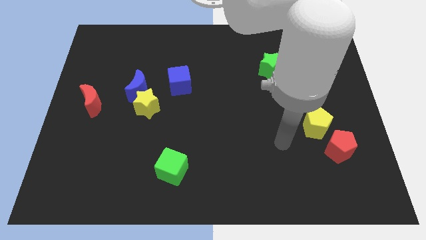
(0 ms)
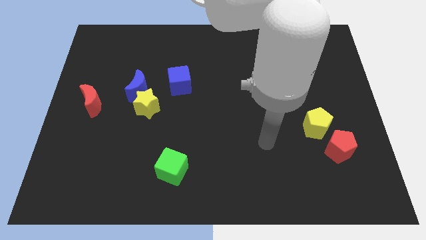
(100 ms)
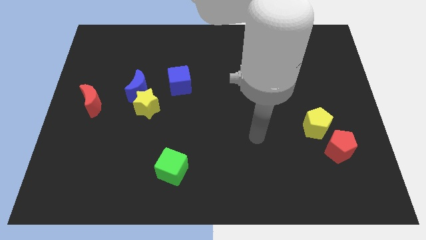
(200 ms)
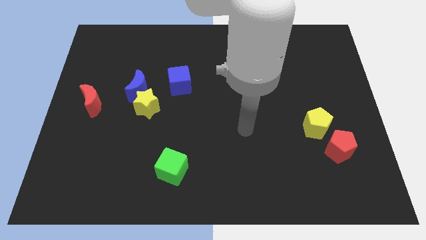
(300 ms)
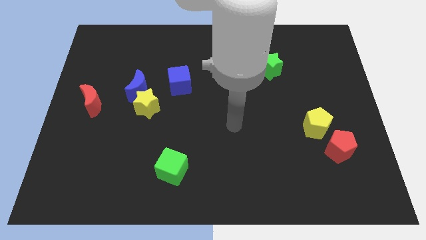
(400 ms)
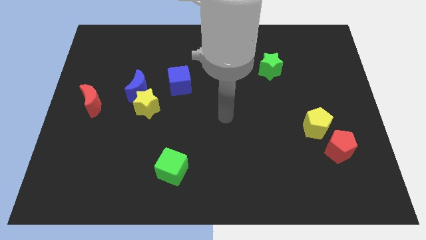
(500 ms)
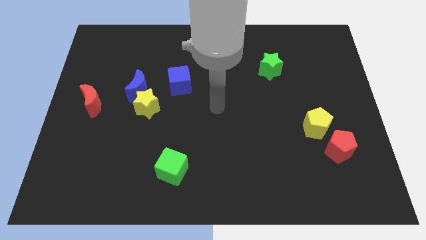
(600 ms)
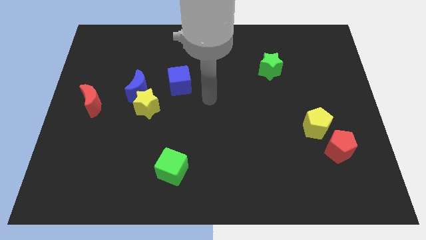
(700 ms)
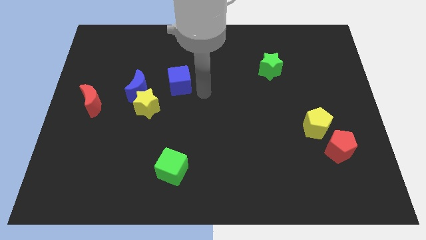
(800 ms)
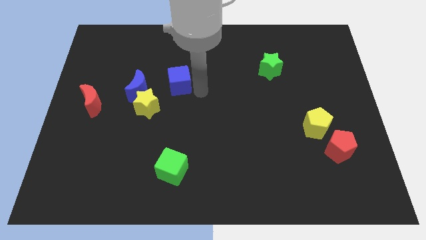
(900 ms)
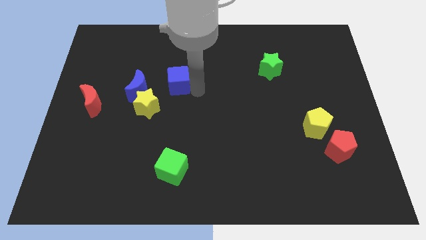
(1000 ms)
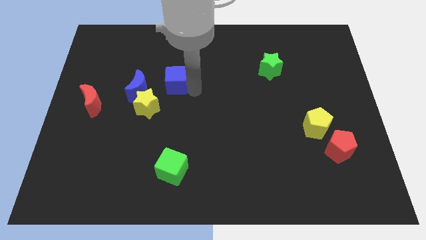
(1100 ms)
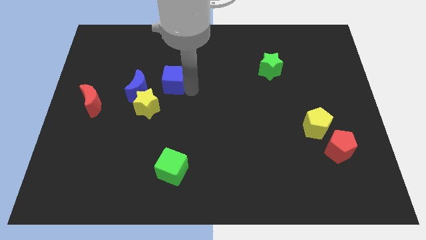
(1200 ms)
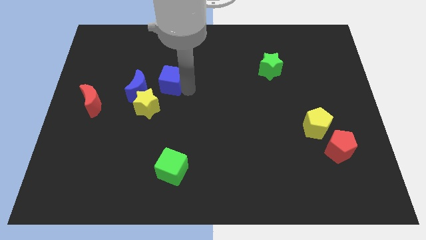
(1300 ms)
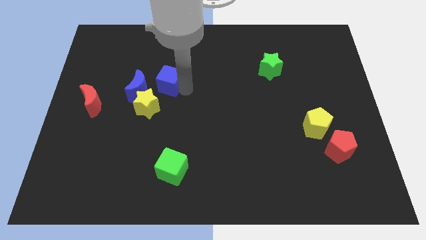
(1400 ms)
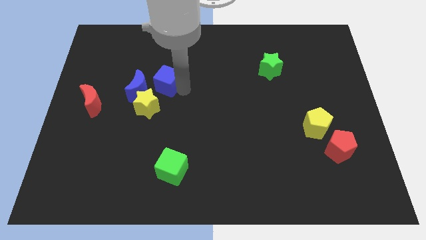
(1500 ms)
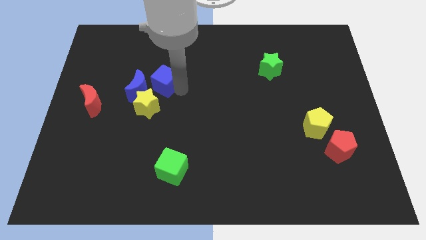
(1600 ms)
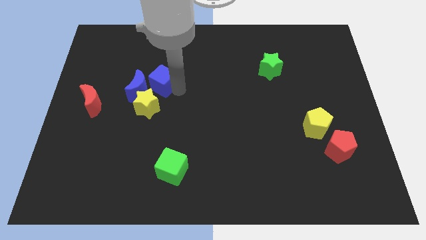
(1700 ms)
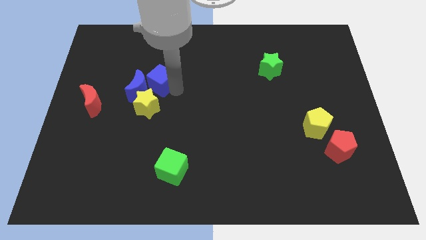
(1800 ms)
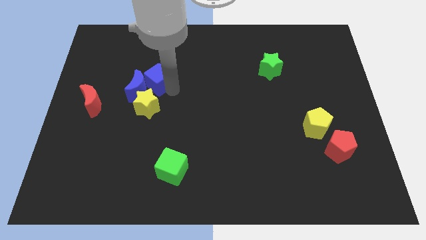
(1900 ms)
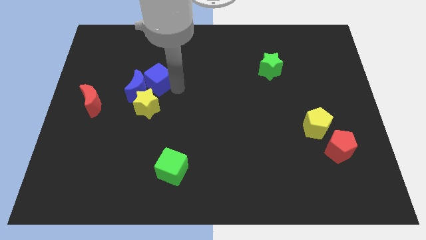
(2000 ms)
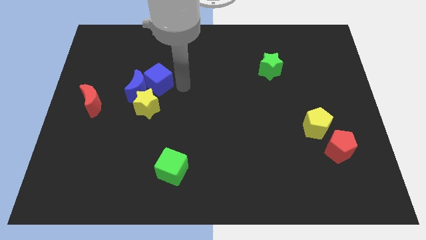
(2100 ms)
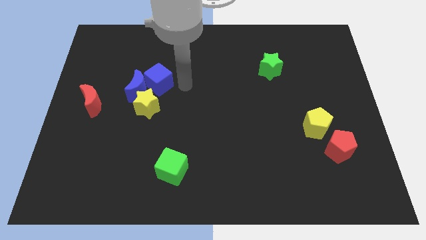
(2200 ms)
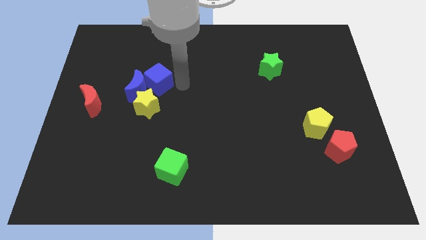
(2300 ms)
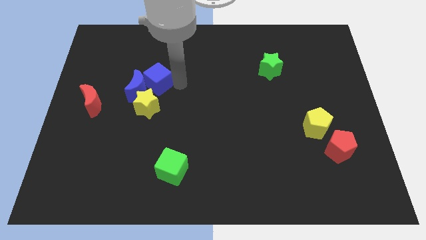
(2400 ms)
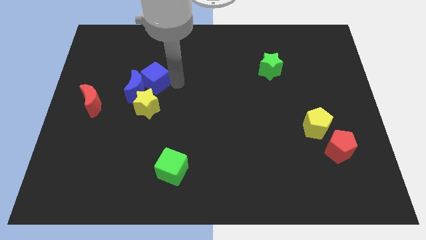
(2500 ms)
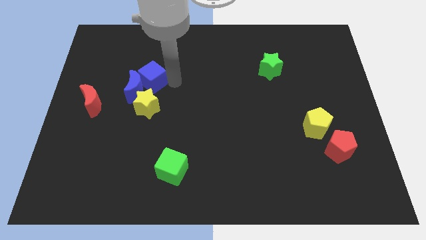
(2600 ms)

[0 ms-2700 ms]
slide the blue cube left somewhat

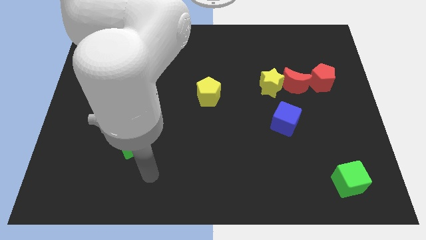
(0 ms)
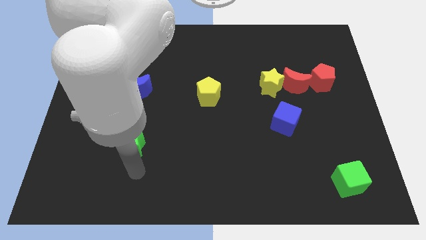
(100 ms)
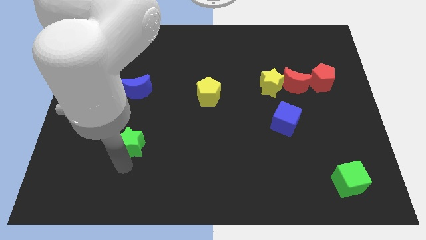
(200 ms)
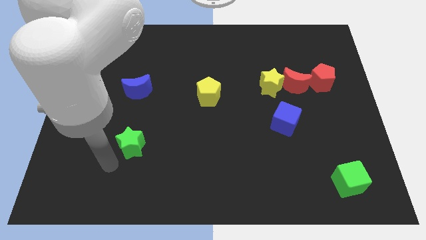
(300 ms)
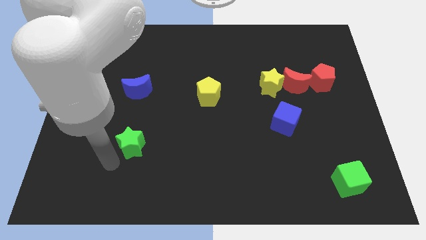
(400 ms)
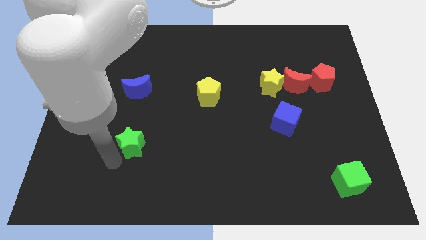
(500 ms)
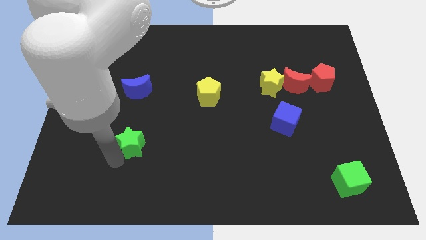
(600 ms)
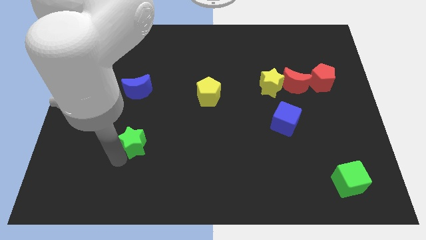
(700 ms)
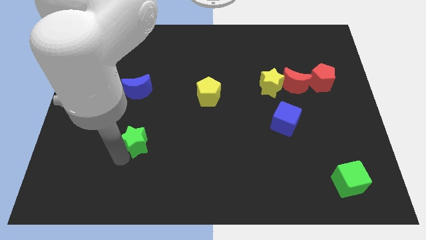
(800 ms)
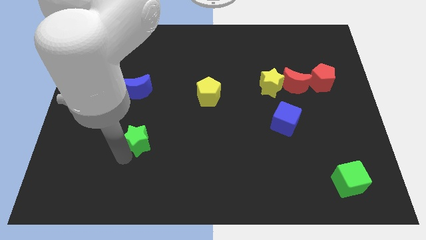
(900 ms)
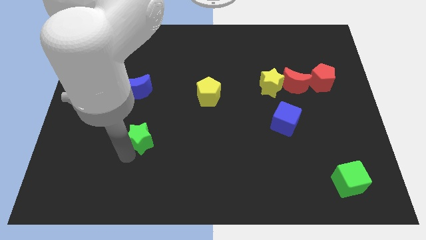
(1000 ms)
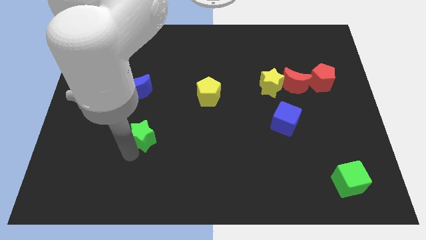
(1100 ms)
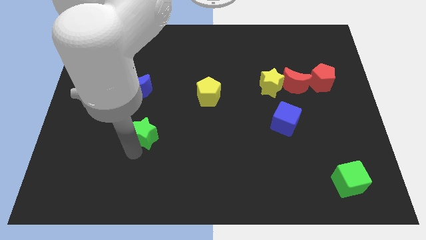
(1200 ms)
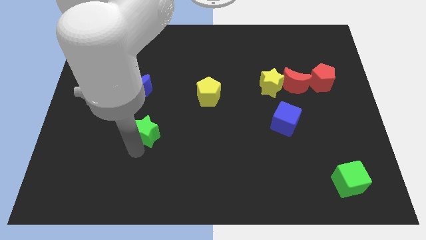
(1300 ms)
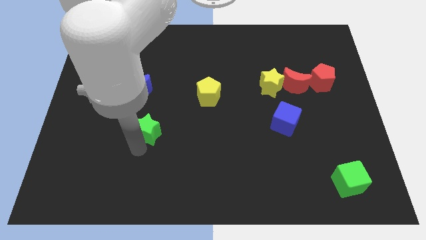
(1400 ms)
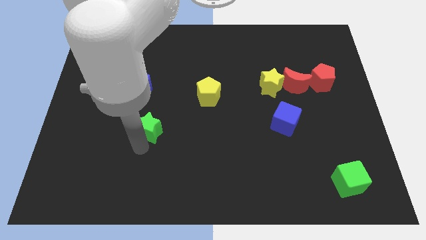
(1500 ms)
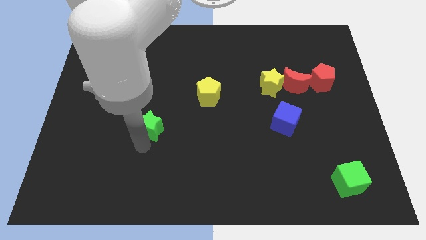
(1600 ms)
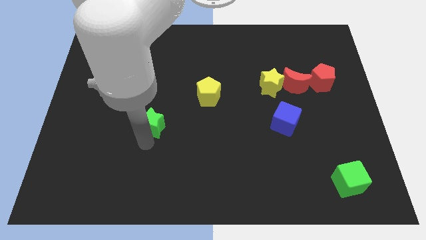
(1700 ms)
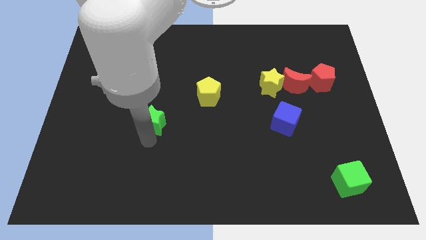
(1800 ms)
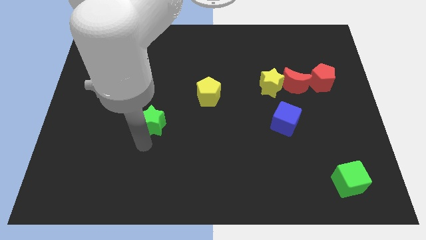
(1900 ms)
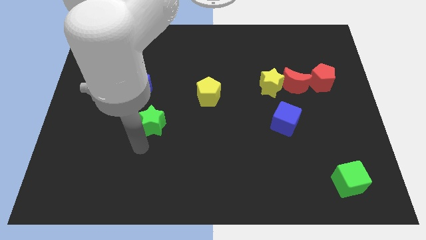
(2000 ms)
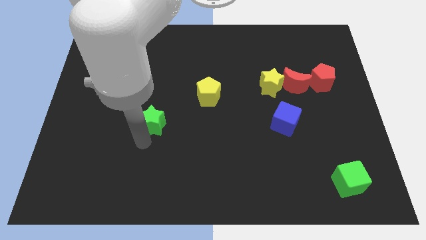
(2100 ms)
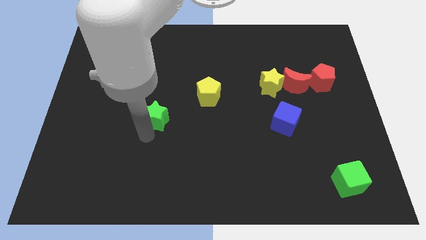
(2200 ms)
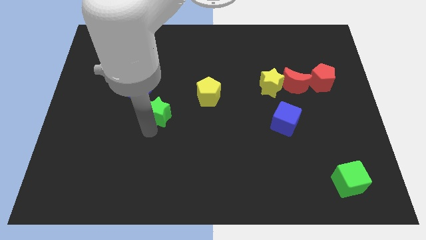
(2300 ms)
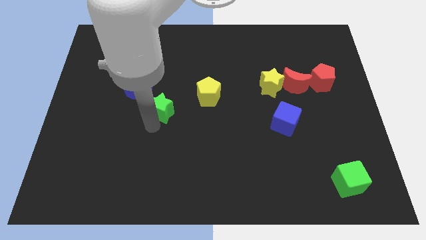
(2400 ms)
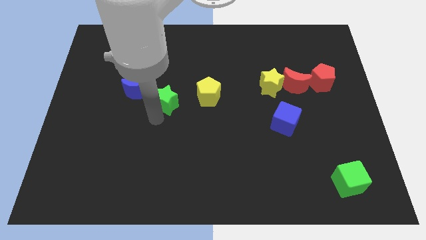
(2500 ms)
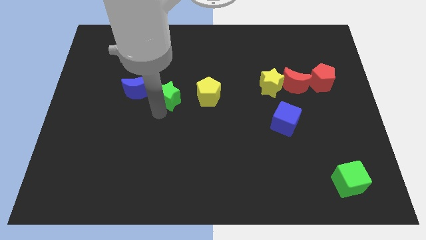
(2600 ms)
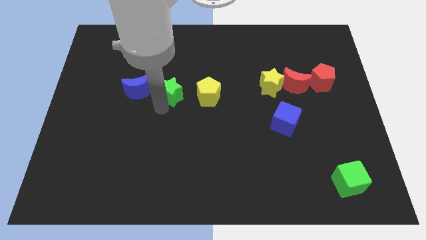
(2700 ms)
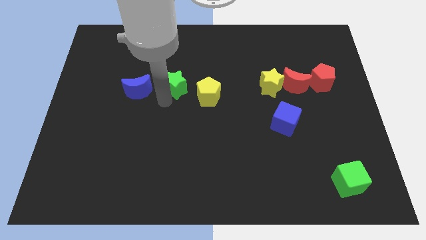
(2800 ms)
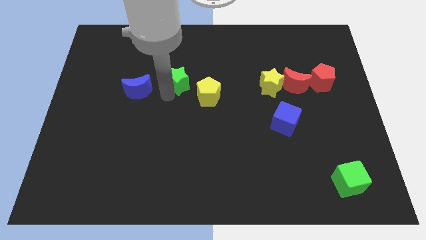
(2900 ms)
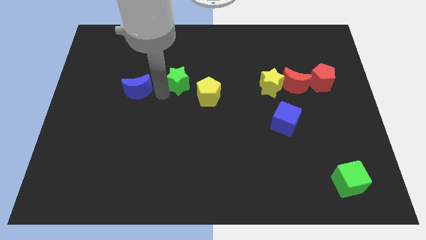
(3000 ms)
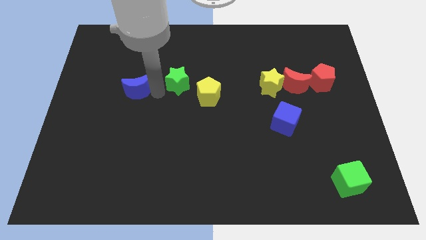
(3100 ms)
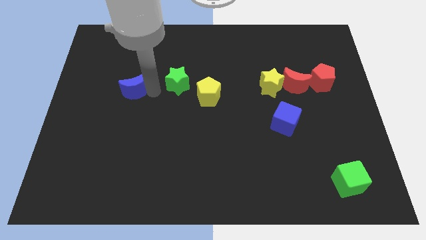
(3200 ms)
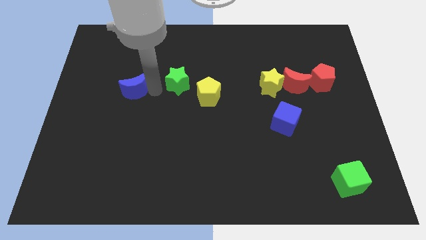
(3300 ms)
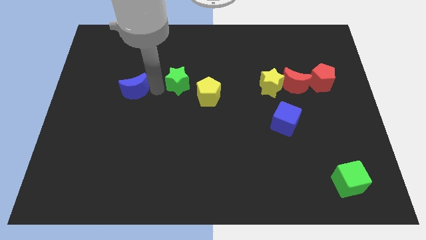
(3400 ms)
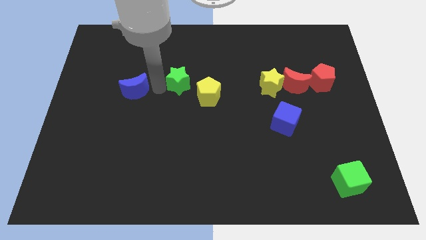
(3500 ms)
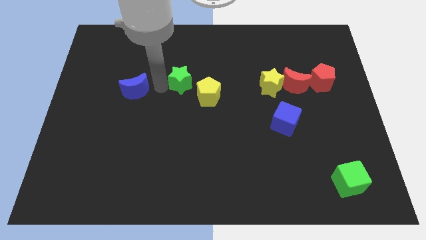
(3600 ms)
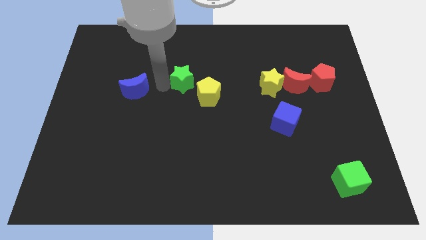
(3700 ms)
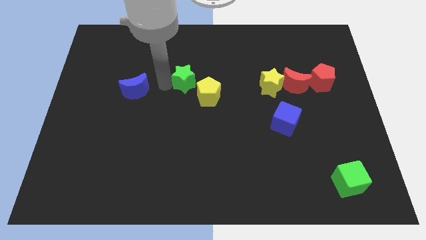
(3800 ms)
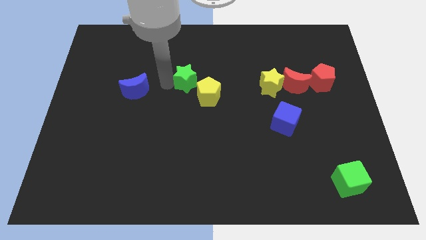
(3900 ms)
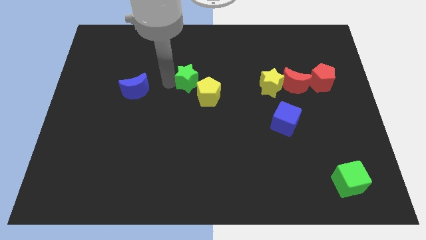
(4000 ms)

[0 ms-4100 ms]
move the green star up and to the right

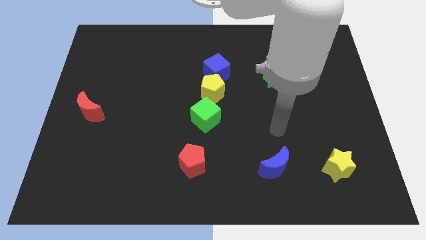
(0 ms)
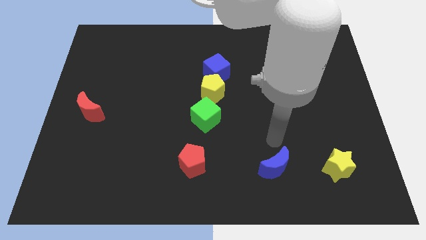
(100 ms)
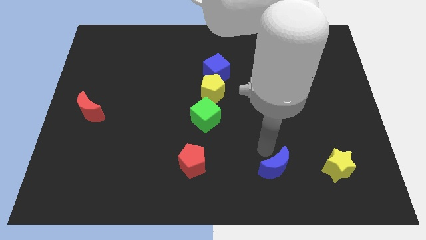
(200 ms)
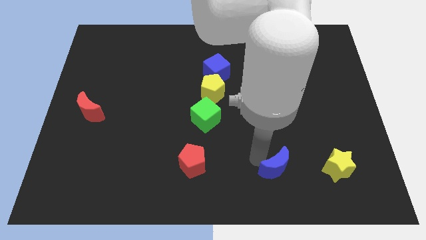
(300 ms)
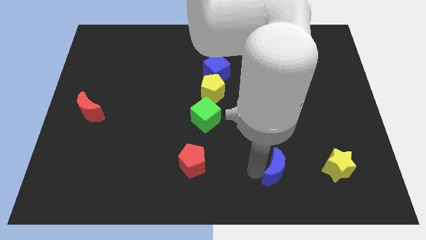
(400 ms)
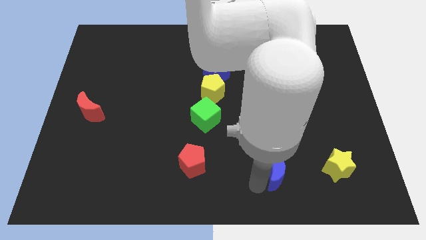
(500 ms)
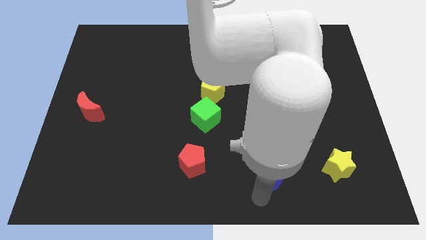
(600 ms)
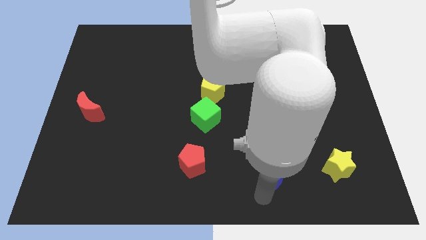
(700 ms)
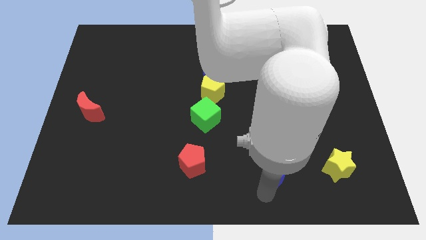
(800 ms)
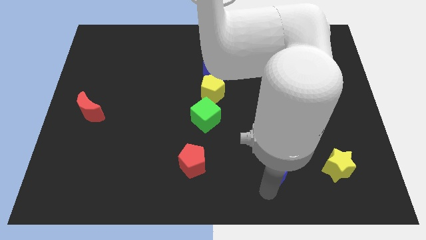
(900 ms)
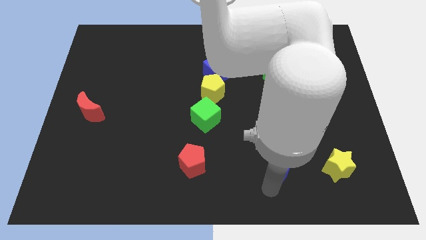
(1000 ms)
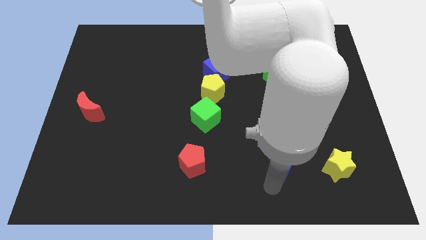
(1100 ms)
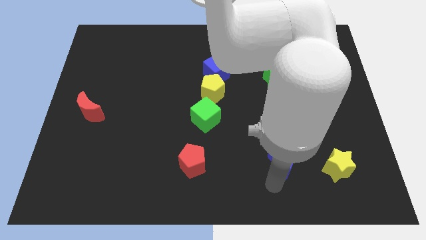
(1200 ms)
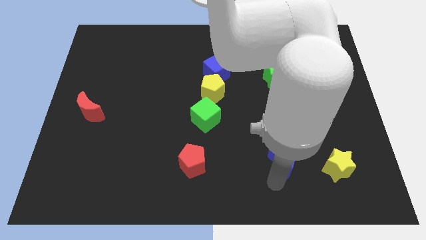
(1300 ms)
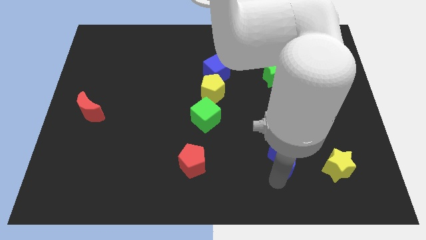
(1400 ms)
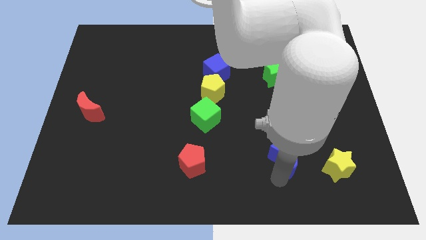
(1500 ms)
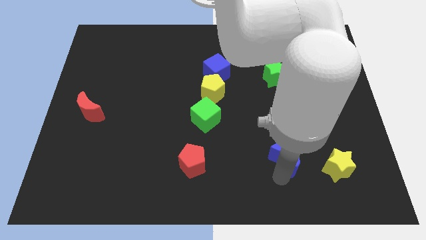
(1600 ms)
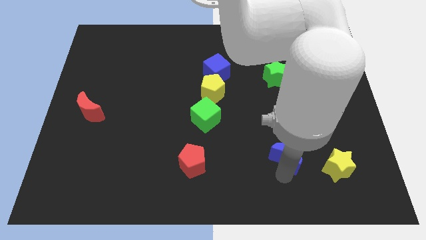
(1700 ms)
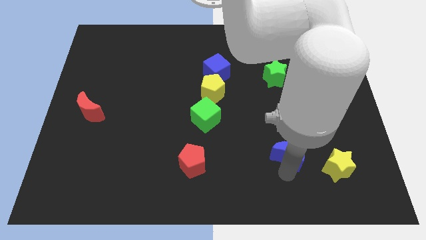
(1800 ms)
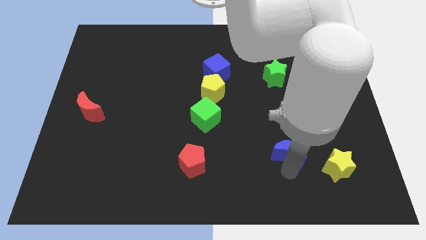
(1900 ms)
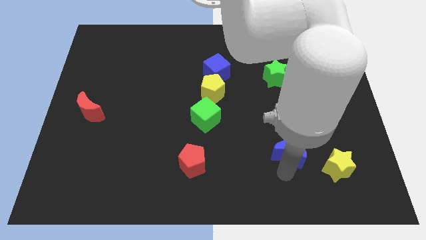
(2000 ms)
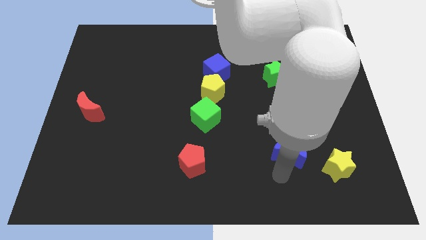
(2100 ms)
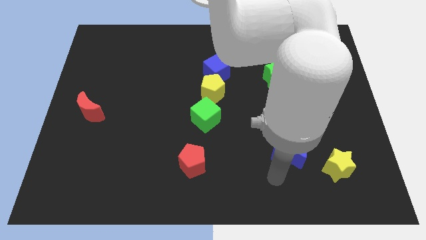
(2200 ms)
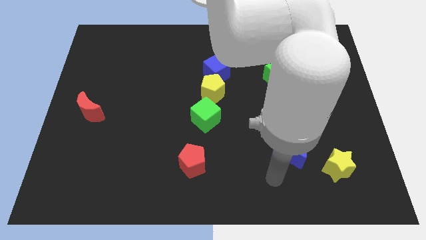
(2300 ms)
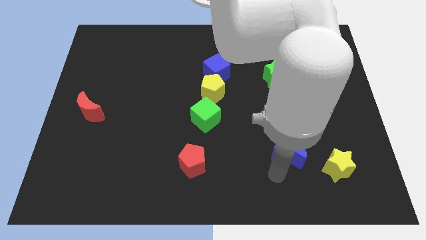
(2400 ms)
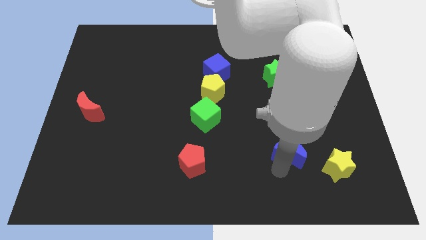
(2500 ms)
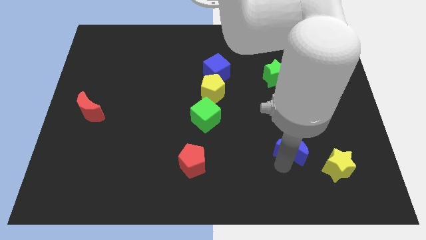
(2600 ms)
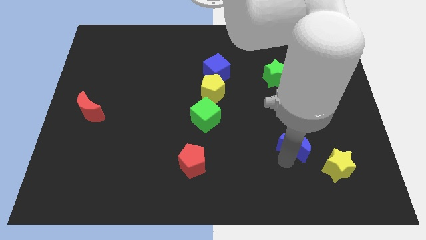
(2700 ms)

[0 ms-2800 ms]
slightly push the blue moon upwards and right
